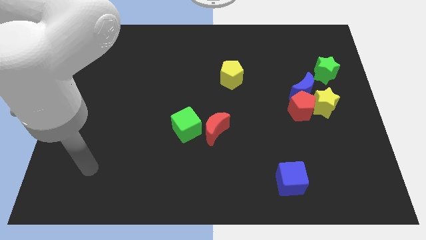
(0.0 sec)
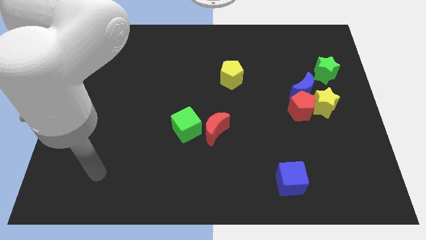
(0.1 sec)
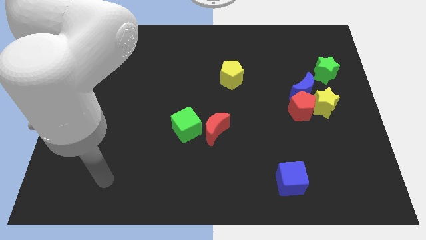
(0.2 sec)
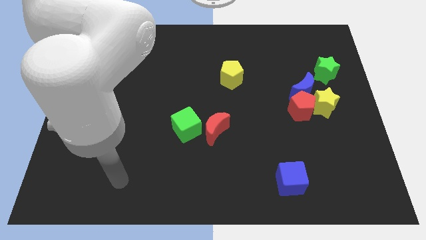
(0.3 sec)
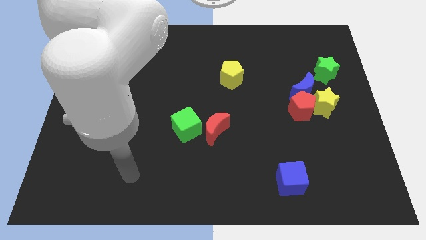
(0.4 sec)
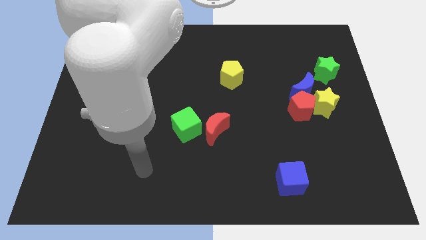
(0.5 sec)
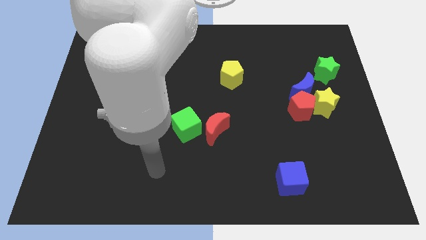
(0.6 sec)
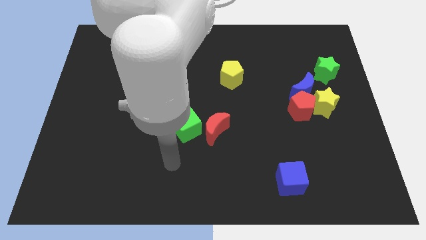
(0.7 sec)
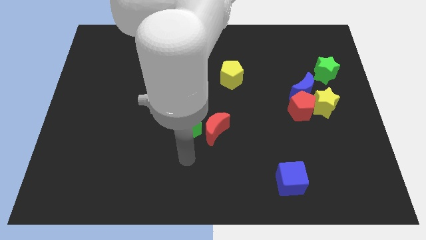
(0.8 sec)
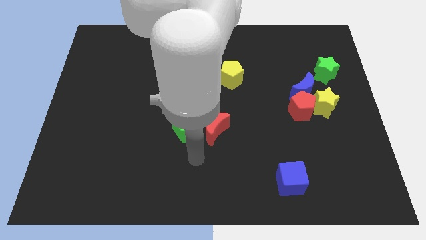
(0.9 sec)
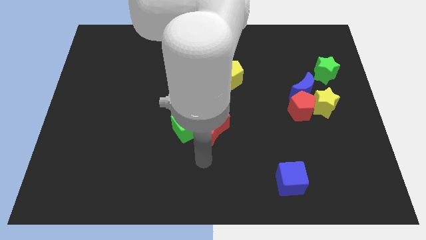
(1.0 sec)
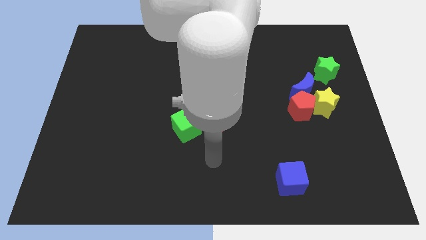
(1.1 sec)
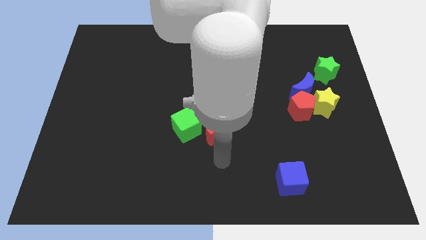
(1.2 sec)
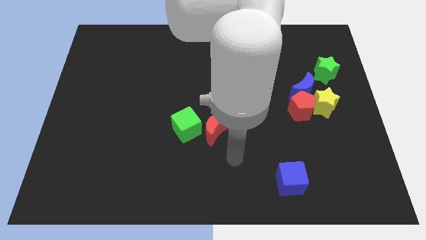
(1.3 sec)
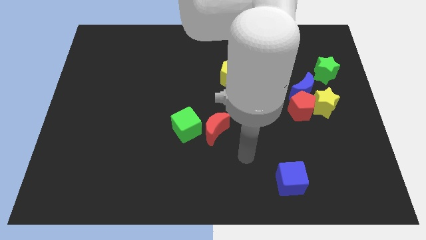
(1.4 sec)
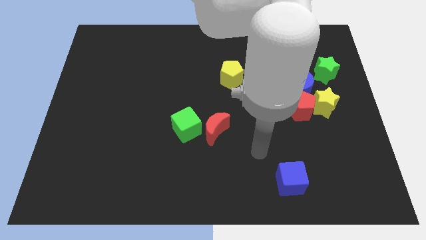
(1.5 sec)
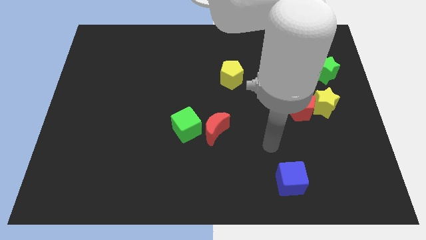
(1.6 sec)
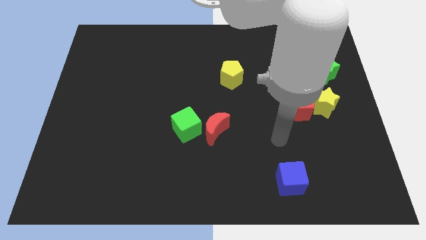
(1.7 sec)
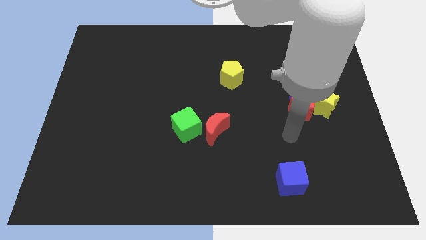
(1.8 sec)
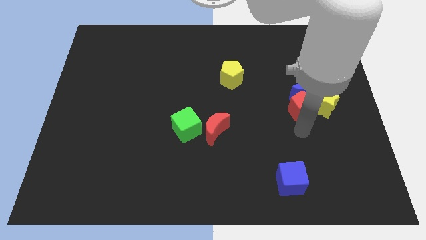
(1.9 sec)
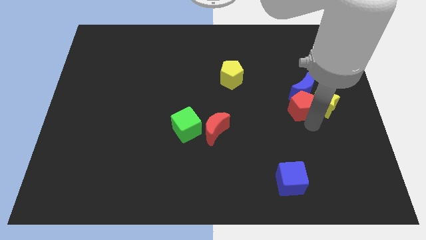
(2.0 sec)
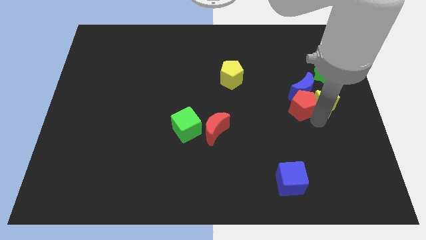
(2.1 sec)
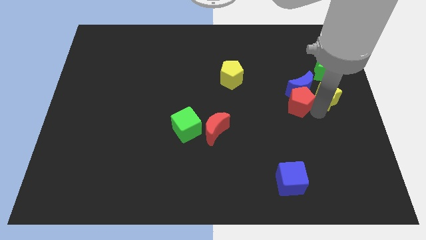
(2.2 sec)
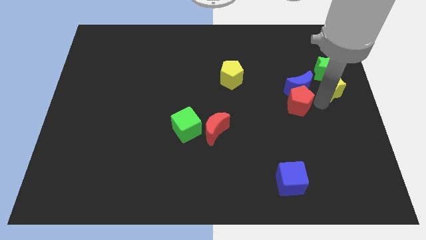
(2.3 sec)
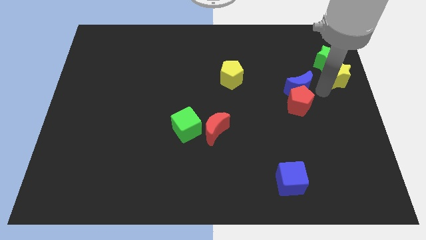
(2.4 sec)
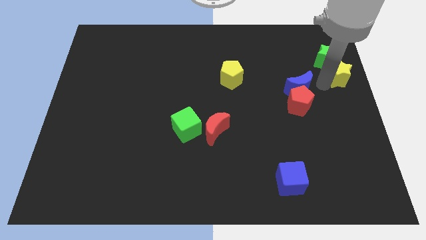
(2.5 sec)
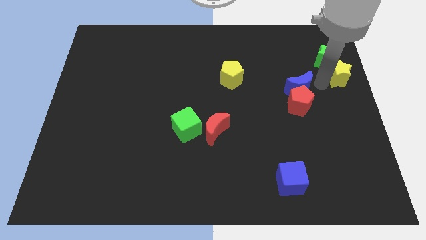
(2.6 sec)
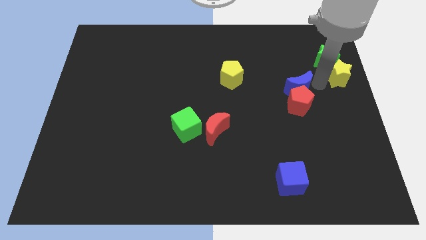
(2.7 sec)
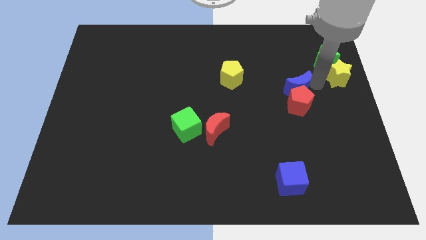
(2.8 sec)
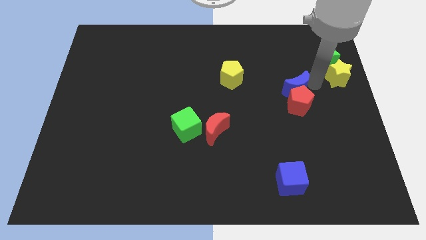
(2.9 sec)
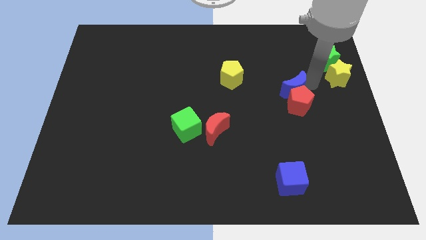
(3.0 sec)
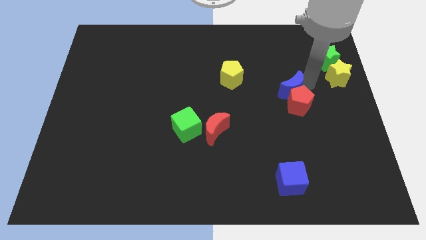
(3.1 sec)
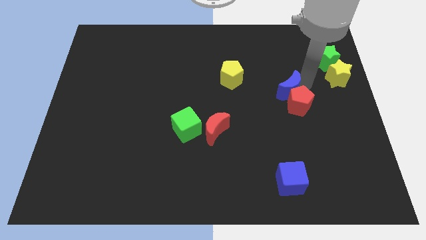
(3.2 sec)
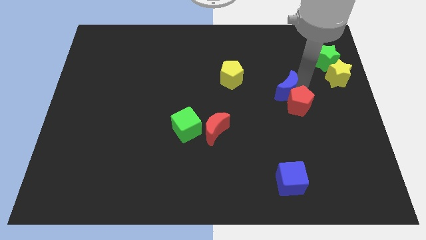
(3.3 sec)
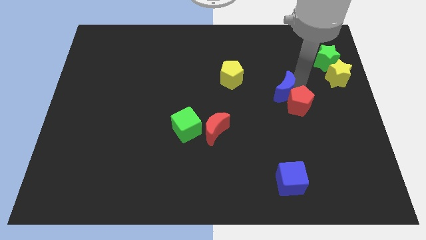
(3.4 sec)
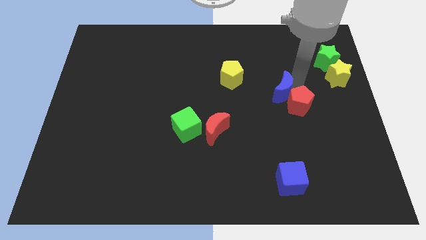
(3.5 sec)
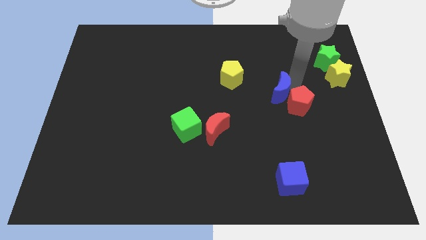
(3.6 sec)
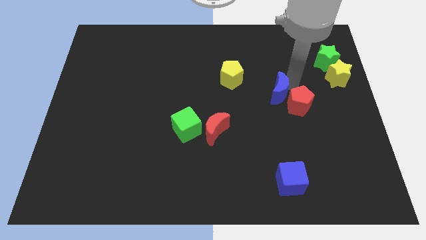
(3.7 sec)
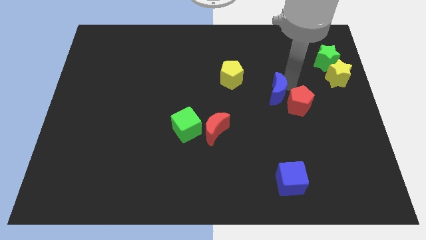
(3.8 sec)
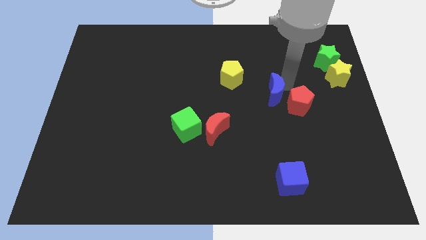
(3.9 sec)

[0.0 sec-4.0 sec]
slightly slide the blue moon left

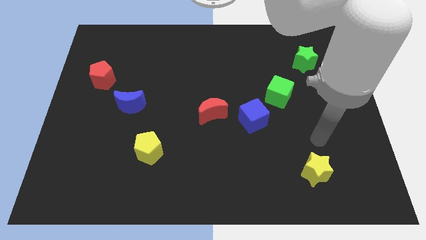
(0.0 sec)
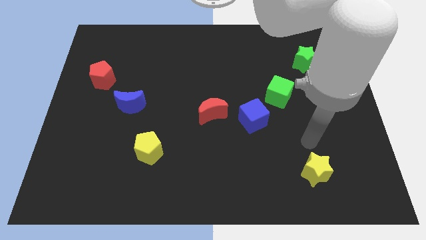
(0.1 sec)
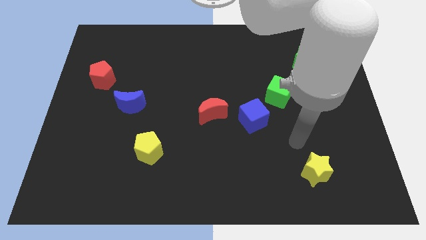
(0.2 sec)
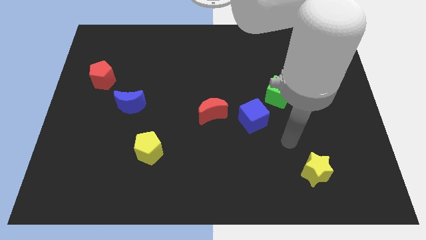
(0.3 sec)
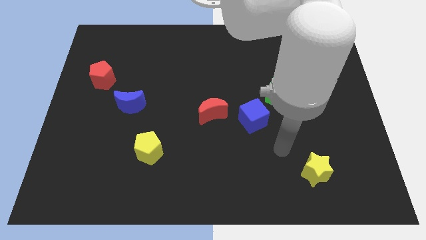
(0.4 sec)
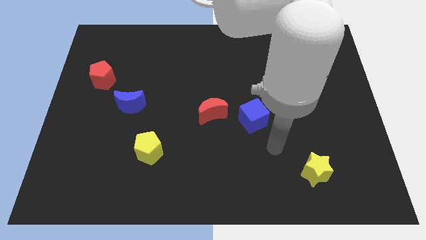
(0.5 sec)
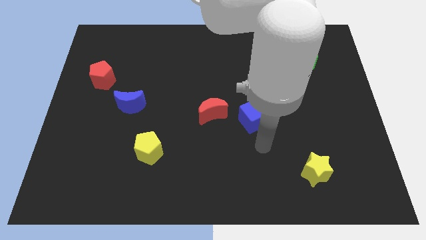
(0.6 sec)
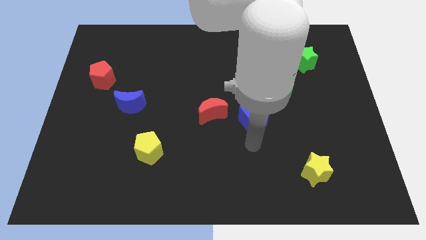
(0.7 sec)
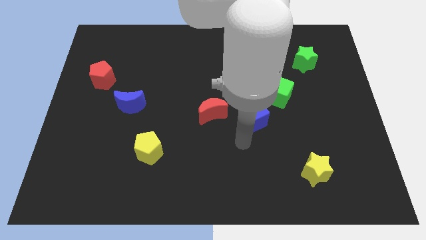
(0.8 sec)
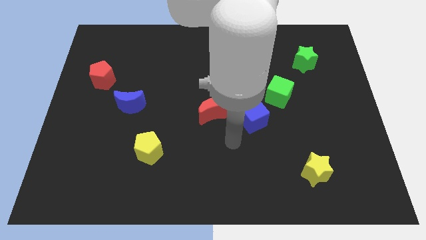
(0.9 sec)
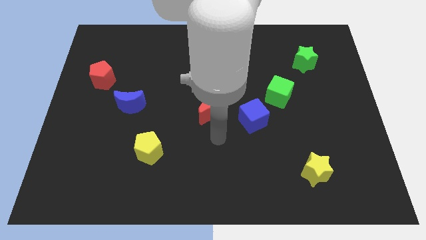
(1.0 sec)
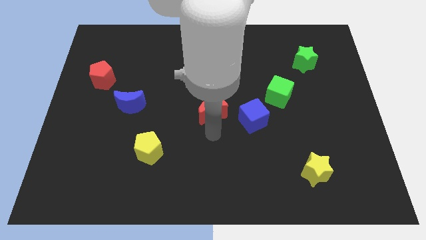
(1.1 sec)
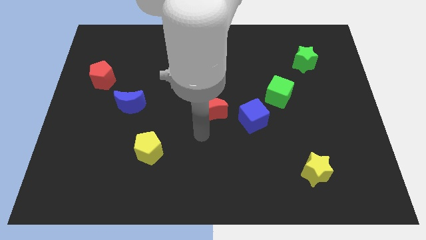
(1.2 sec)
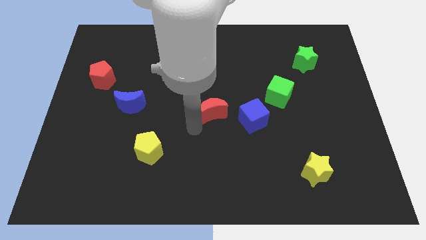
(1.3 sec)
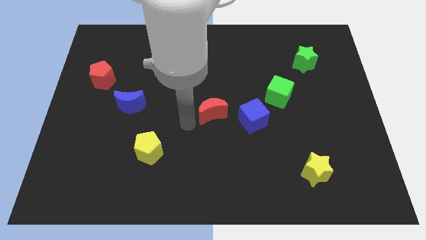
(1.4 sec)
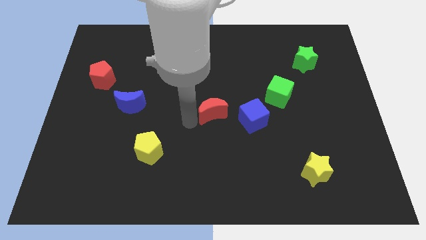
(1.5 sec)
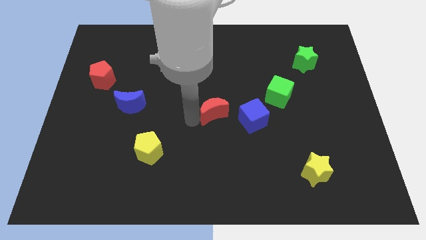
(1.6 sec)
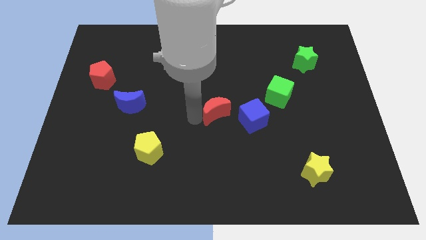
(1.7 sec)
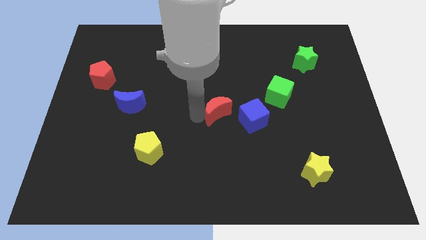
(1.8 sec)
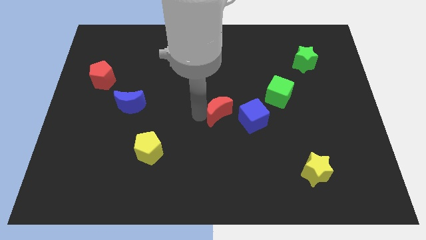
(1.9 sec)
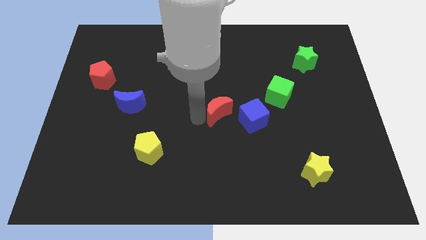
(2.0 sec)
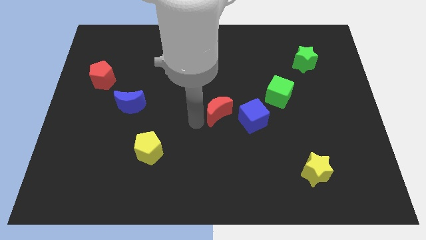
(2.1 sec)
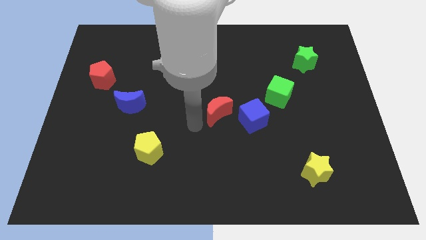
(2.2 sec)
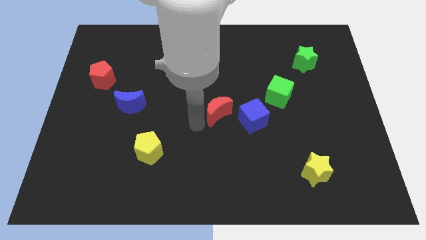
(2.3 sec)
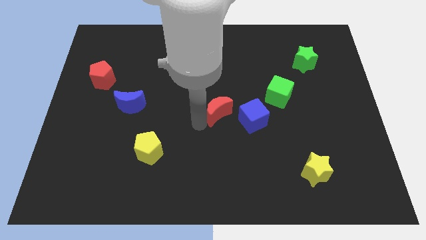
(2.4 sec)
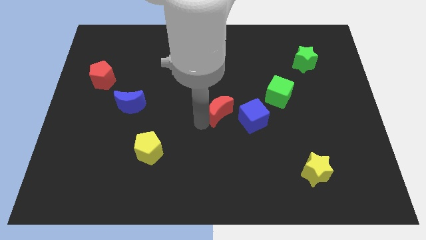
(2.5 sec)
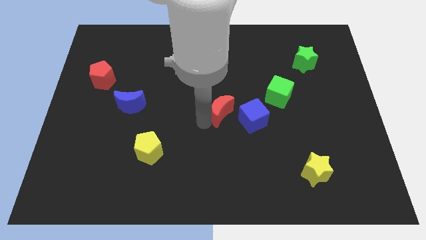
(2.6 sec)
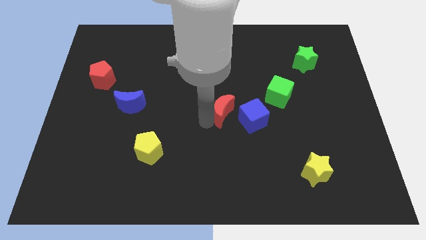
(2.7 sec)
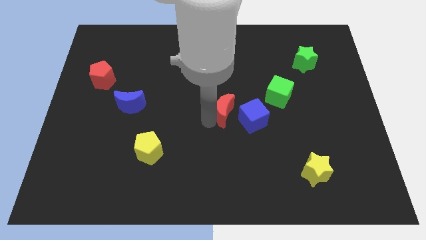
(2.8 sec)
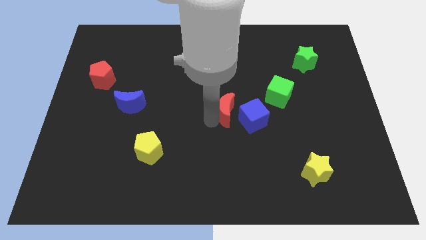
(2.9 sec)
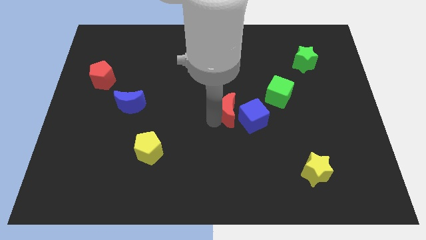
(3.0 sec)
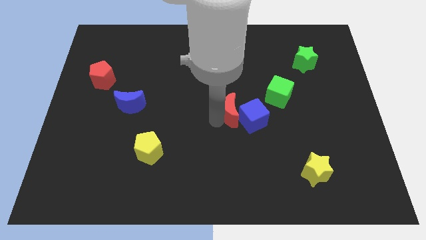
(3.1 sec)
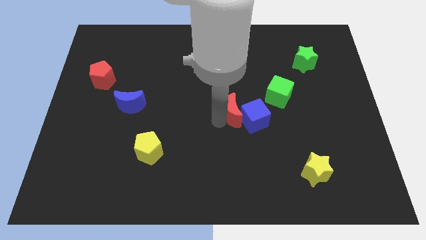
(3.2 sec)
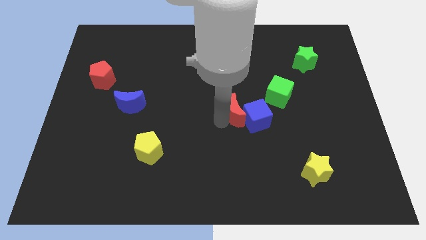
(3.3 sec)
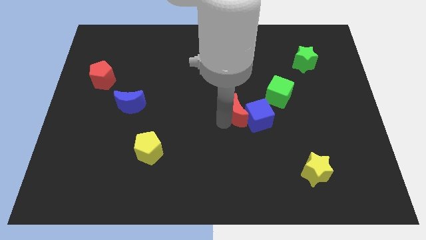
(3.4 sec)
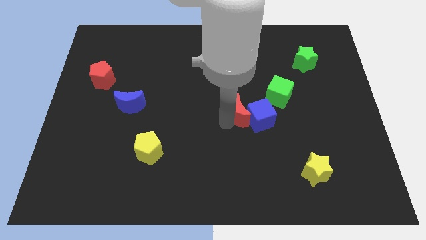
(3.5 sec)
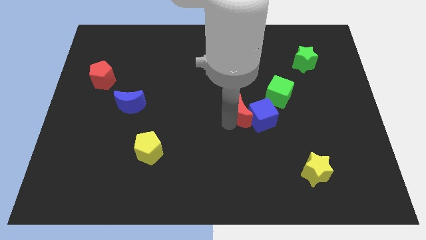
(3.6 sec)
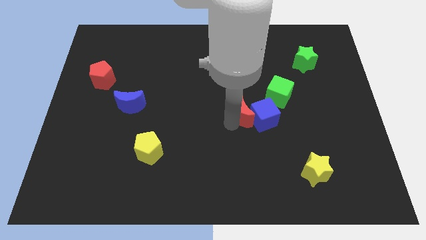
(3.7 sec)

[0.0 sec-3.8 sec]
slide the red moon right slightly

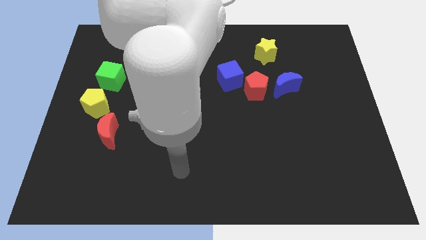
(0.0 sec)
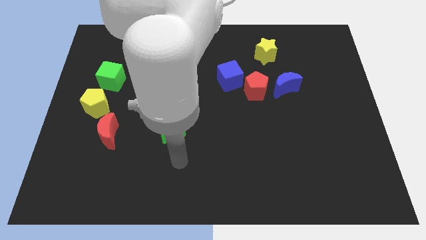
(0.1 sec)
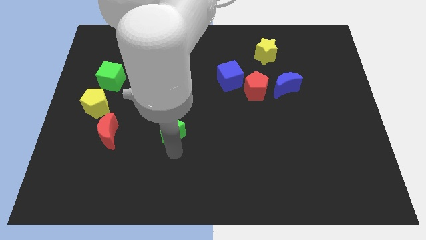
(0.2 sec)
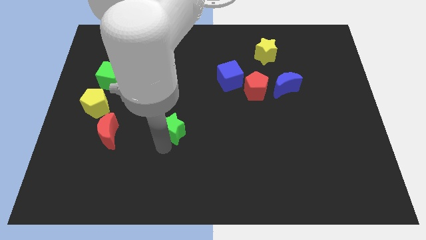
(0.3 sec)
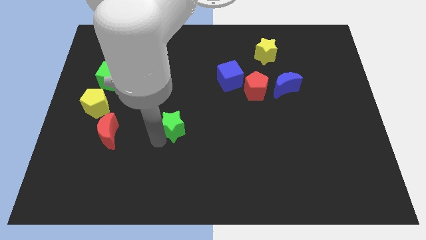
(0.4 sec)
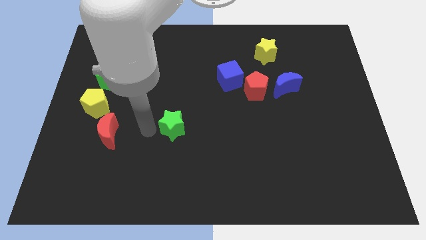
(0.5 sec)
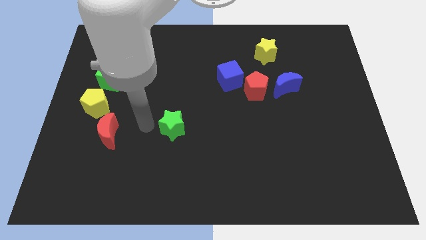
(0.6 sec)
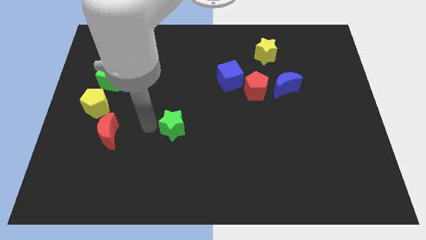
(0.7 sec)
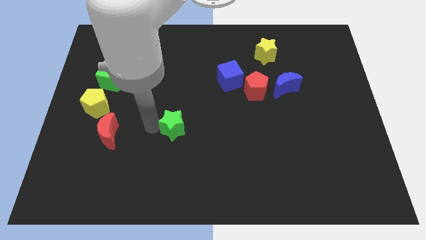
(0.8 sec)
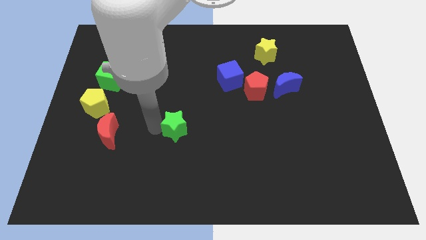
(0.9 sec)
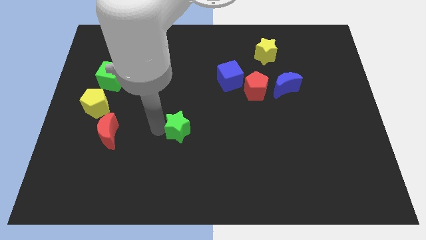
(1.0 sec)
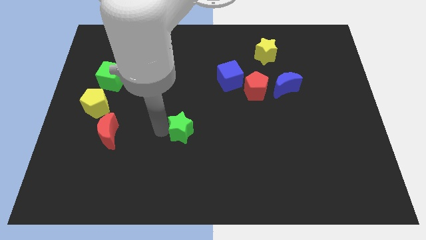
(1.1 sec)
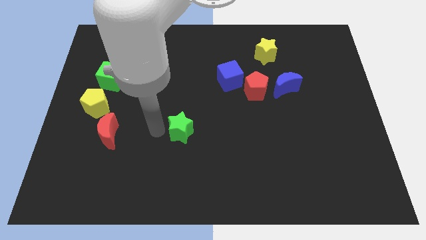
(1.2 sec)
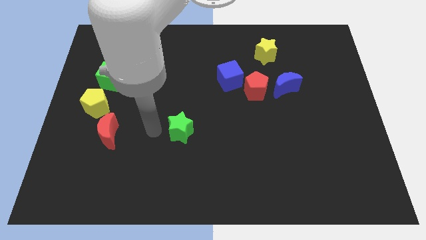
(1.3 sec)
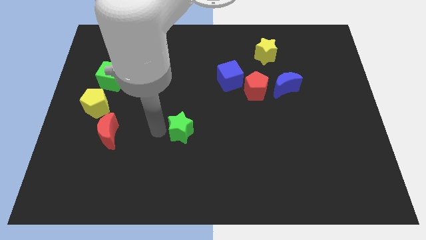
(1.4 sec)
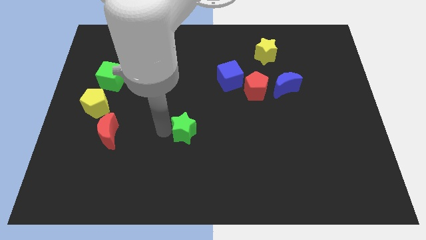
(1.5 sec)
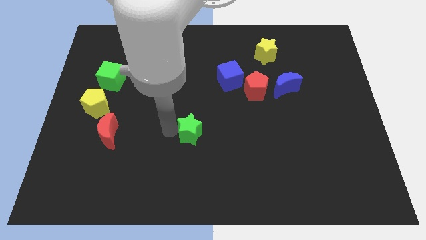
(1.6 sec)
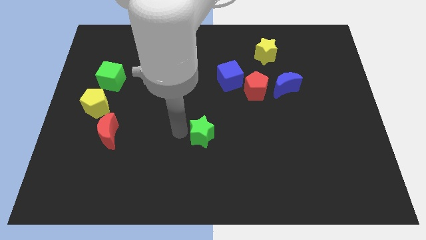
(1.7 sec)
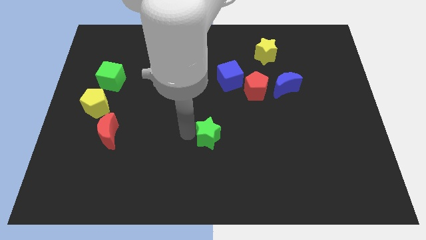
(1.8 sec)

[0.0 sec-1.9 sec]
slightly push the green star right
